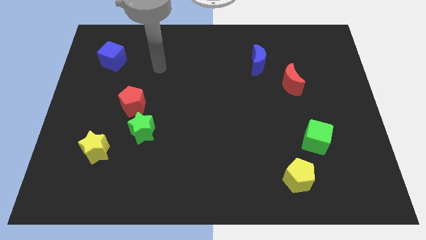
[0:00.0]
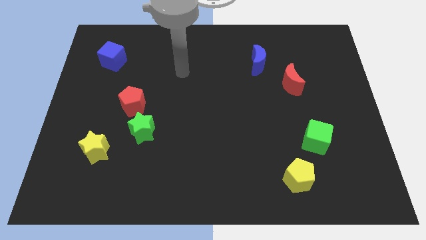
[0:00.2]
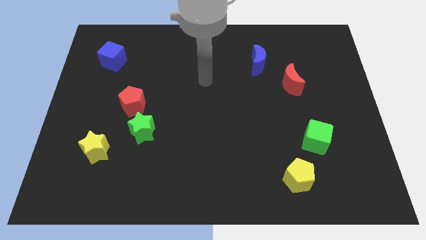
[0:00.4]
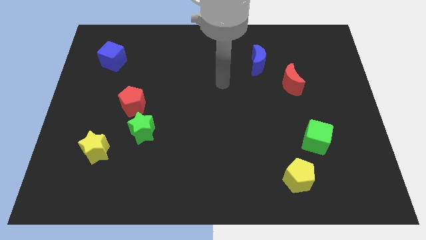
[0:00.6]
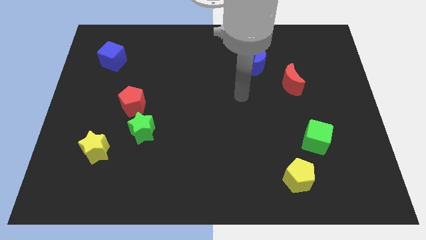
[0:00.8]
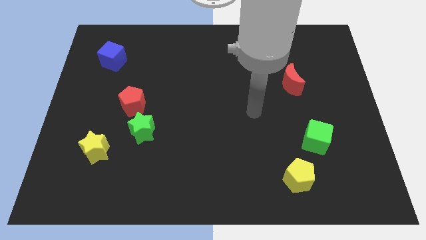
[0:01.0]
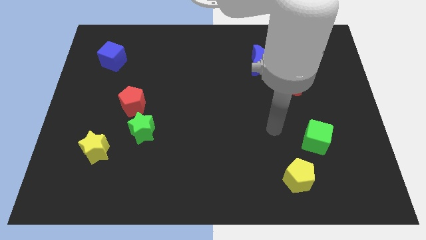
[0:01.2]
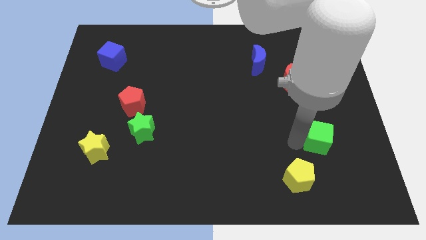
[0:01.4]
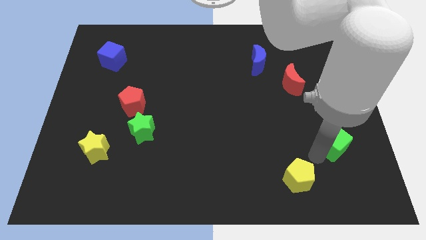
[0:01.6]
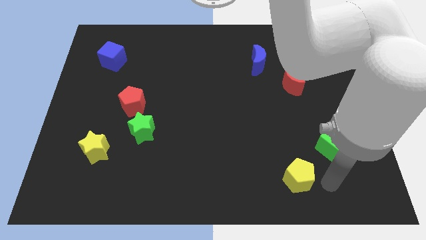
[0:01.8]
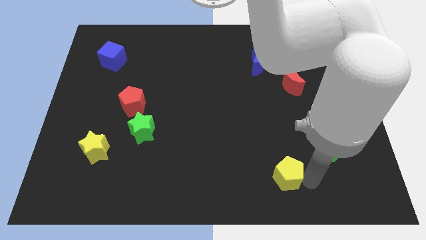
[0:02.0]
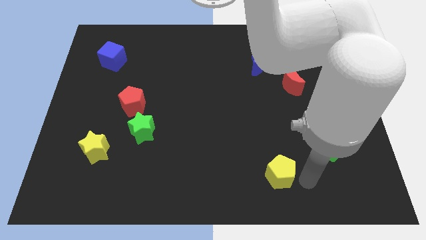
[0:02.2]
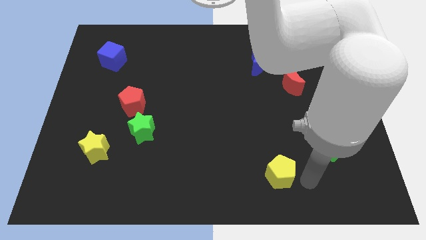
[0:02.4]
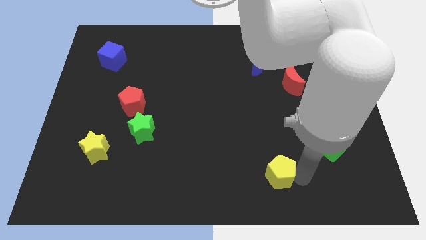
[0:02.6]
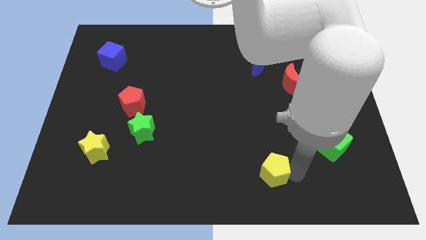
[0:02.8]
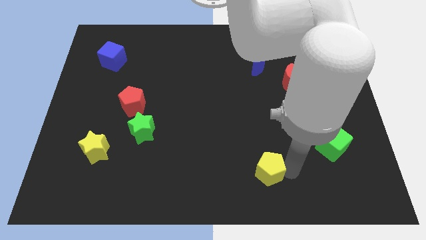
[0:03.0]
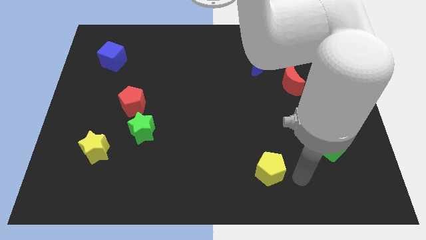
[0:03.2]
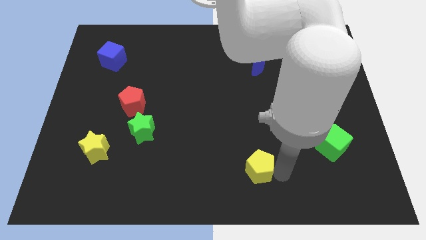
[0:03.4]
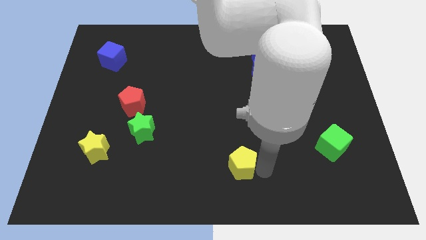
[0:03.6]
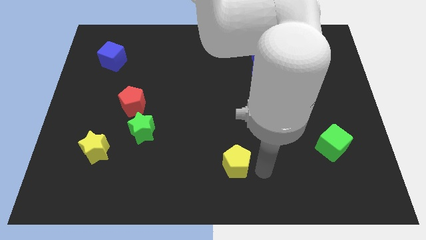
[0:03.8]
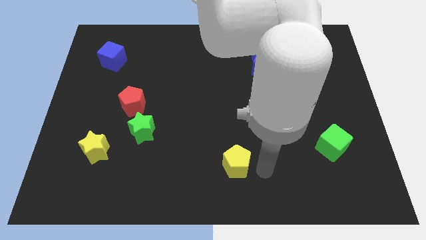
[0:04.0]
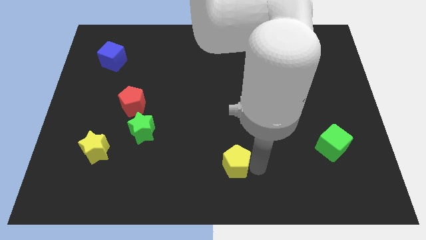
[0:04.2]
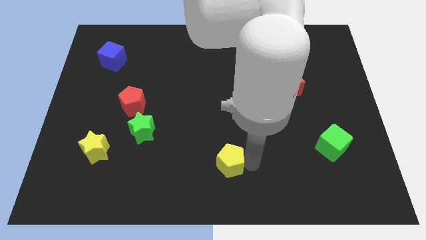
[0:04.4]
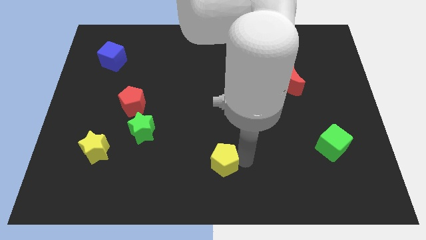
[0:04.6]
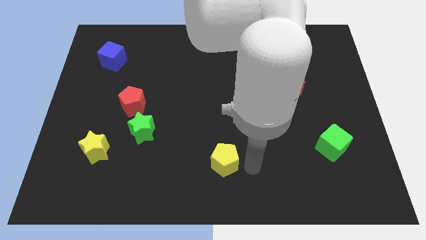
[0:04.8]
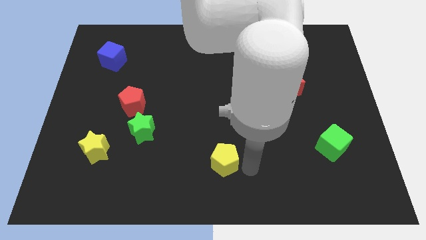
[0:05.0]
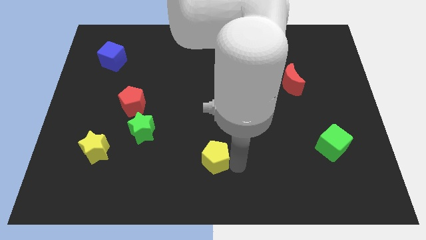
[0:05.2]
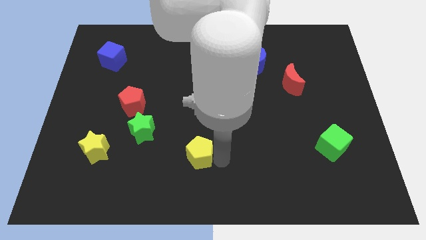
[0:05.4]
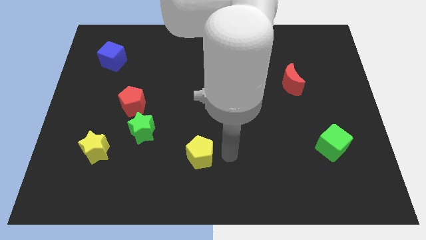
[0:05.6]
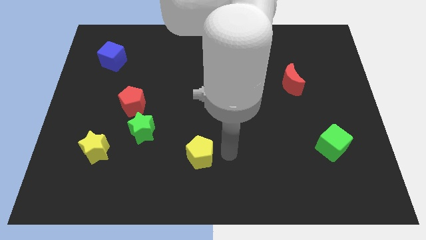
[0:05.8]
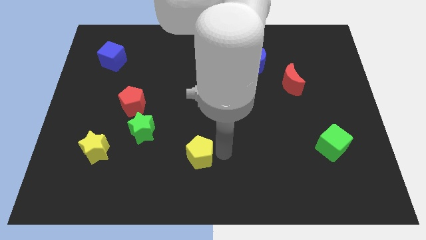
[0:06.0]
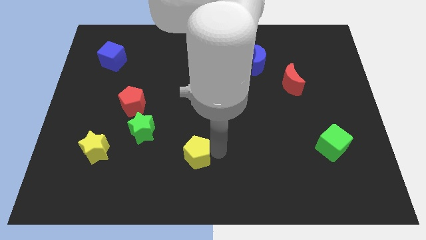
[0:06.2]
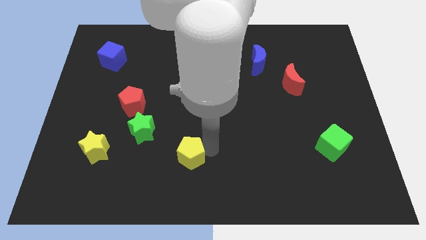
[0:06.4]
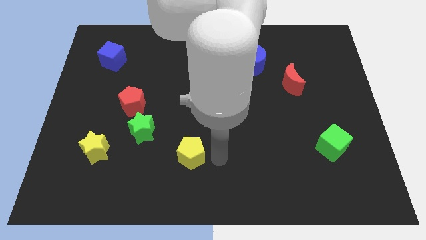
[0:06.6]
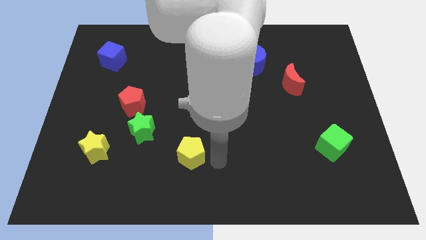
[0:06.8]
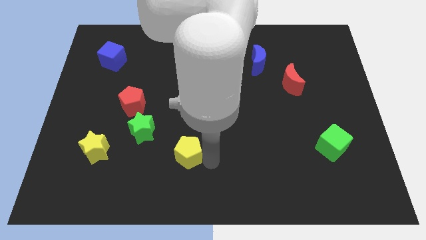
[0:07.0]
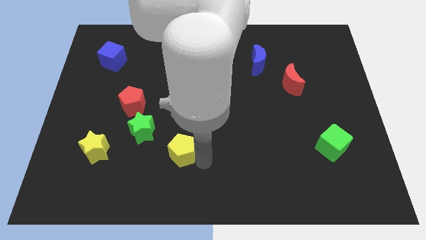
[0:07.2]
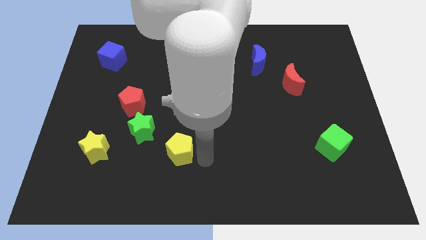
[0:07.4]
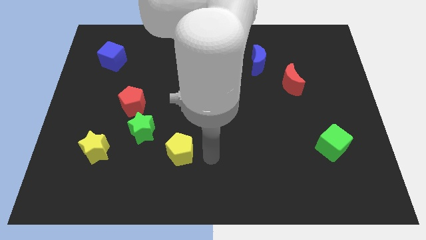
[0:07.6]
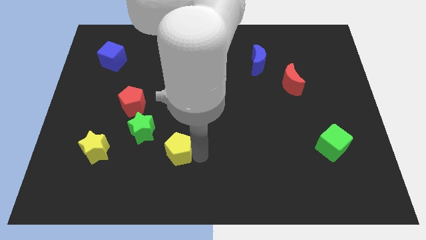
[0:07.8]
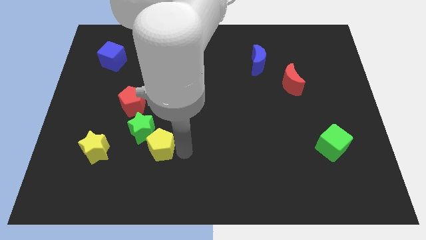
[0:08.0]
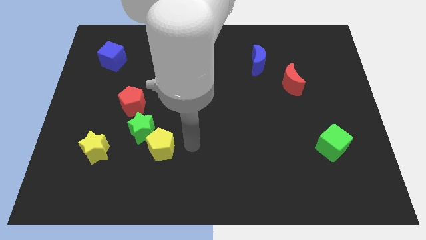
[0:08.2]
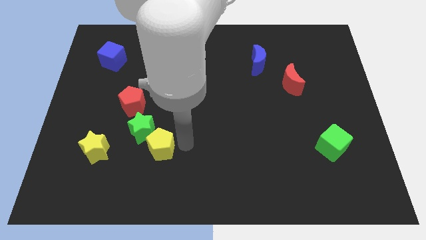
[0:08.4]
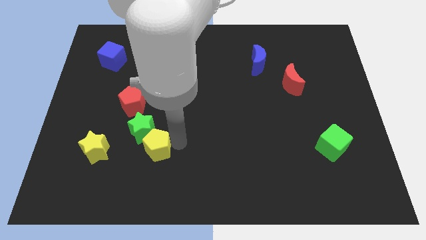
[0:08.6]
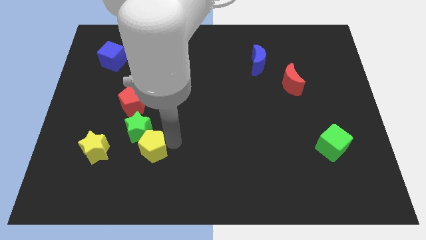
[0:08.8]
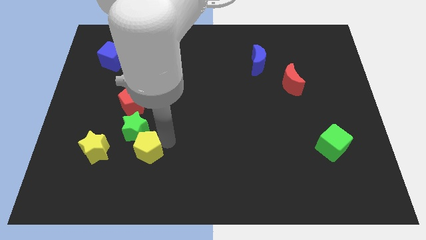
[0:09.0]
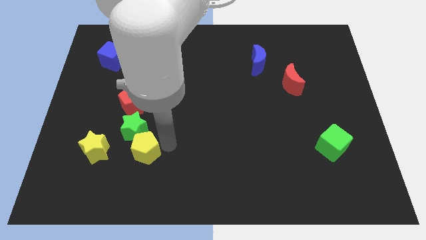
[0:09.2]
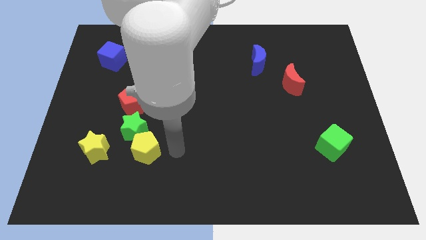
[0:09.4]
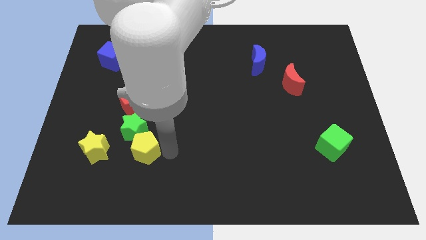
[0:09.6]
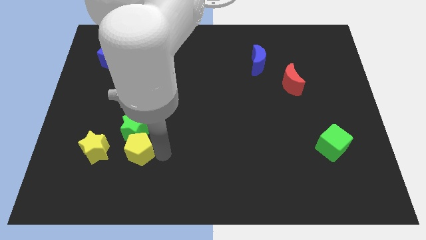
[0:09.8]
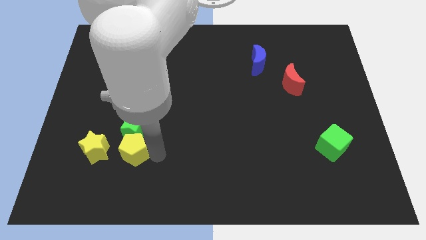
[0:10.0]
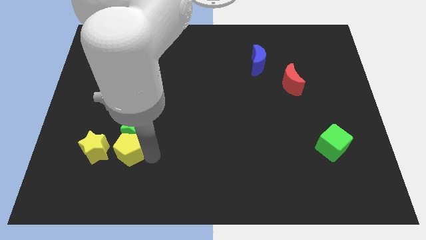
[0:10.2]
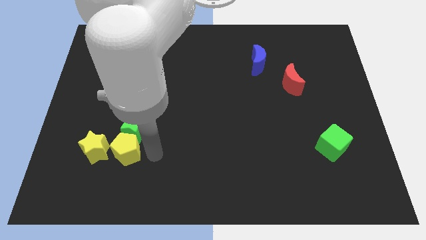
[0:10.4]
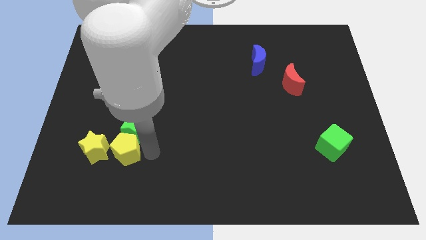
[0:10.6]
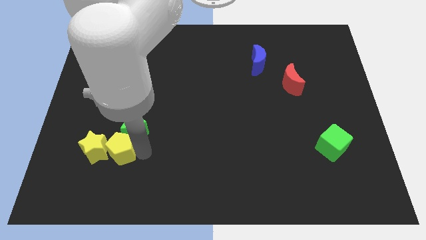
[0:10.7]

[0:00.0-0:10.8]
push the yellow pentagon towards the yellow star

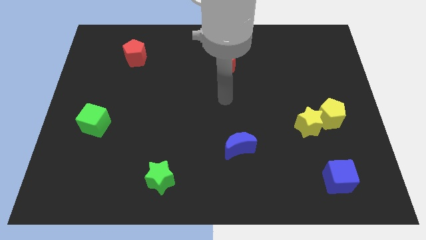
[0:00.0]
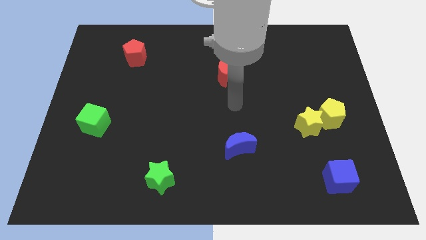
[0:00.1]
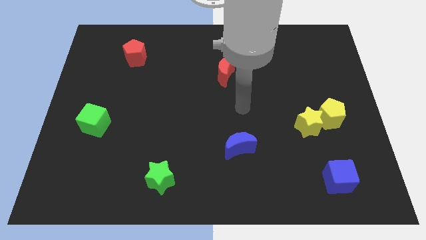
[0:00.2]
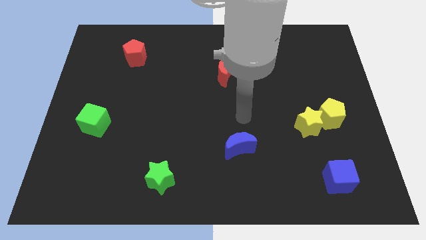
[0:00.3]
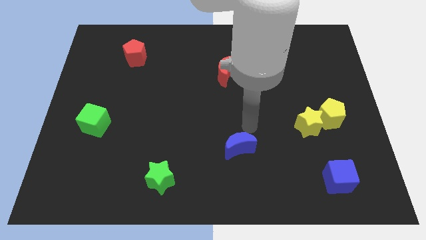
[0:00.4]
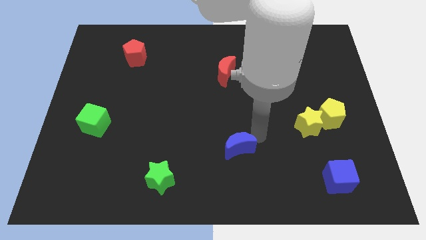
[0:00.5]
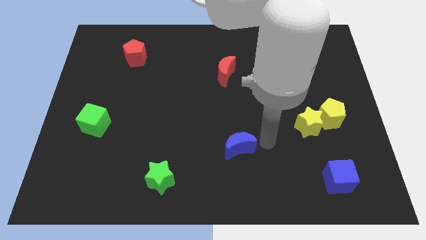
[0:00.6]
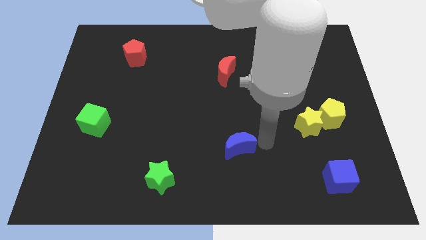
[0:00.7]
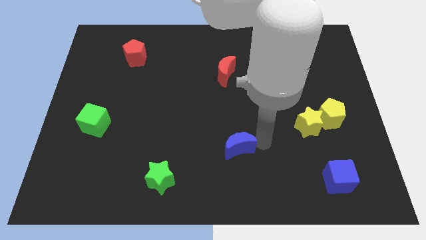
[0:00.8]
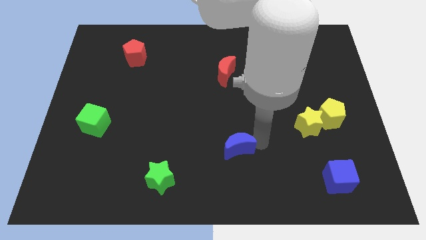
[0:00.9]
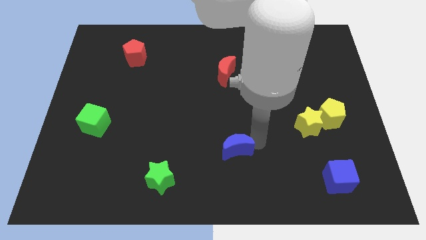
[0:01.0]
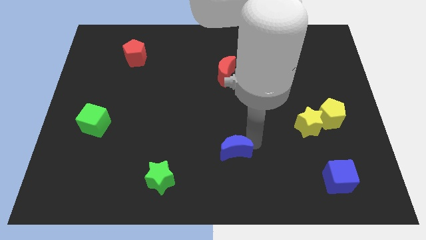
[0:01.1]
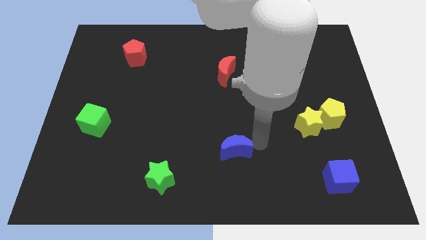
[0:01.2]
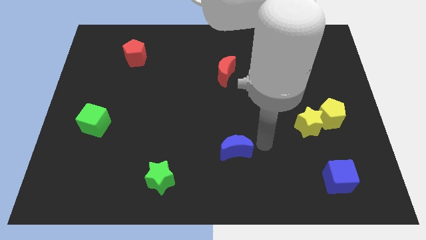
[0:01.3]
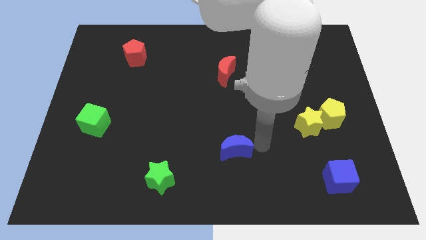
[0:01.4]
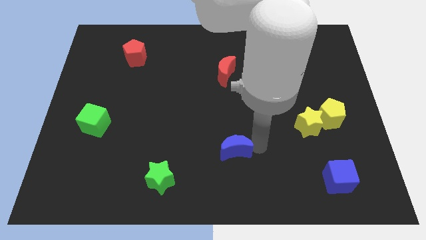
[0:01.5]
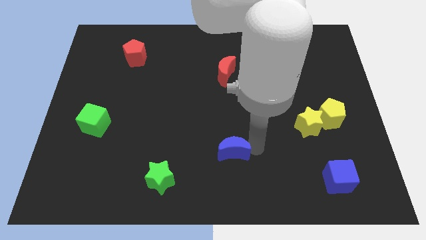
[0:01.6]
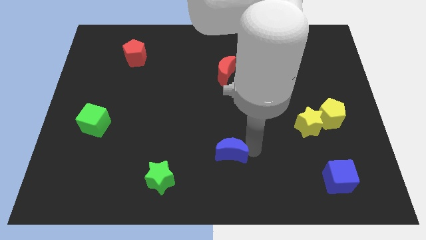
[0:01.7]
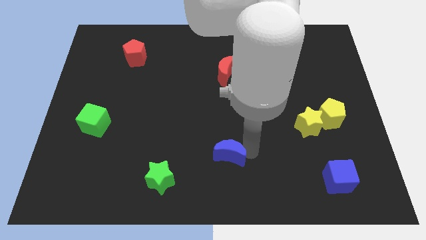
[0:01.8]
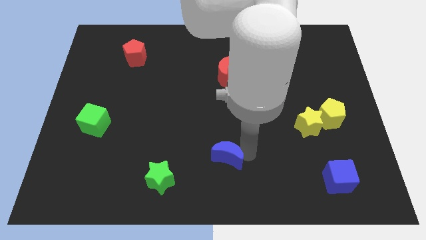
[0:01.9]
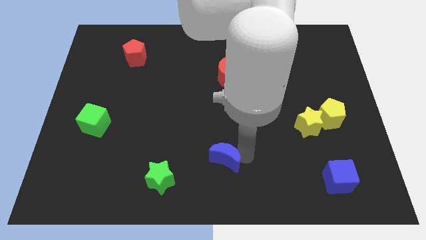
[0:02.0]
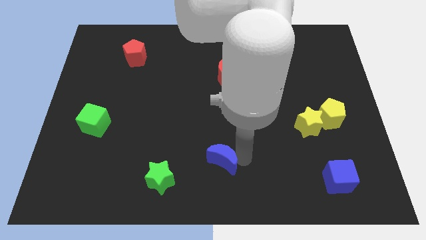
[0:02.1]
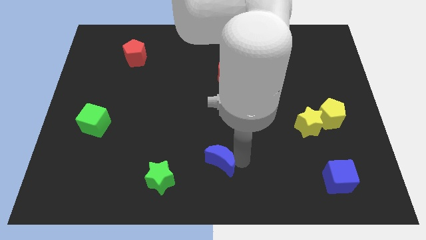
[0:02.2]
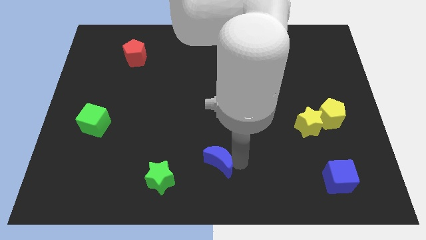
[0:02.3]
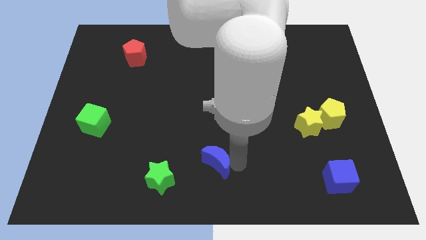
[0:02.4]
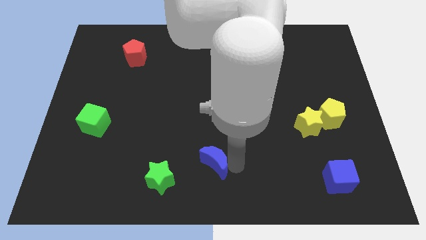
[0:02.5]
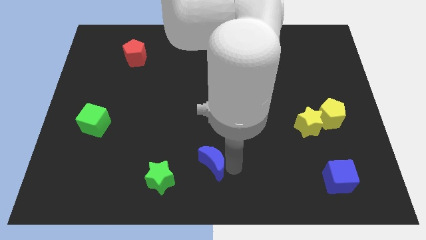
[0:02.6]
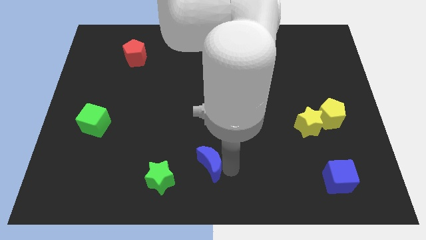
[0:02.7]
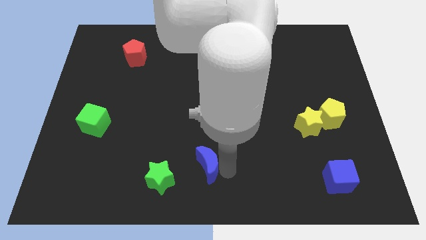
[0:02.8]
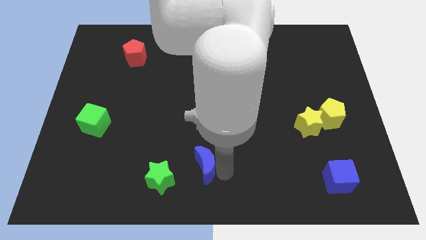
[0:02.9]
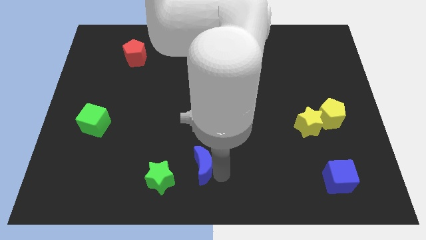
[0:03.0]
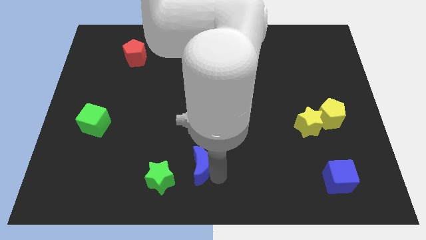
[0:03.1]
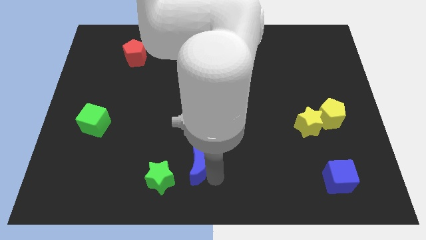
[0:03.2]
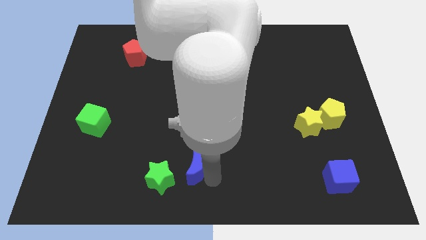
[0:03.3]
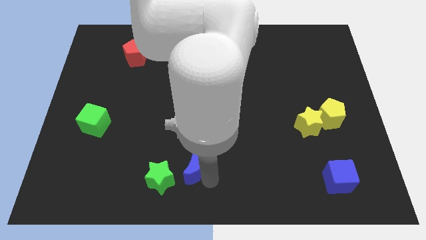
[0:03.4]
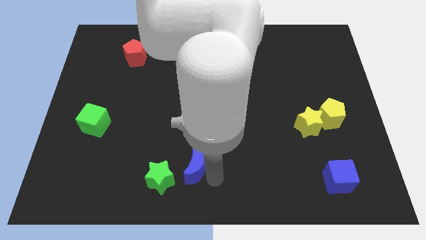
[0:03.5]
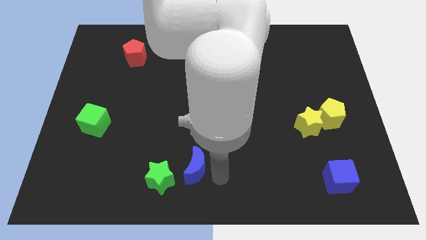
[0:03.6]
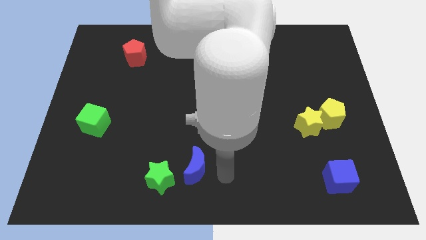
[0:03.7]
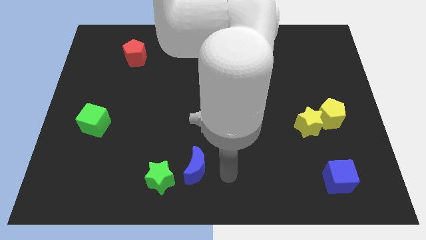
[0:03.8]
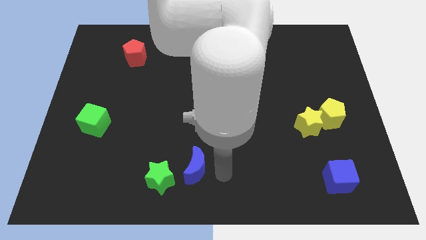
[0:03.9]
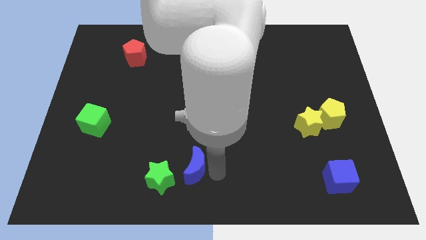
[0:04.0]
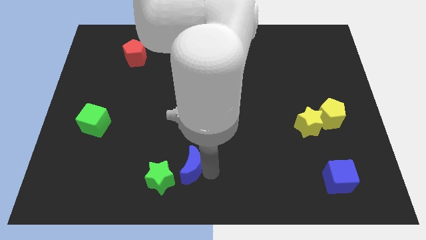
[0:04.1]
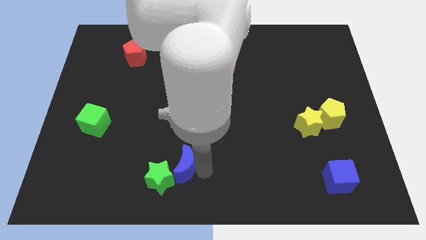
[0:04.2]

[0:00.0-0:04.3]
push the blue moon next to the green star
